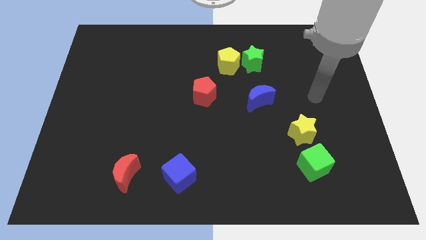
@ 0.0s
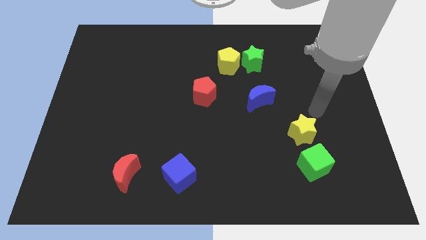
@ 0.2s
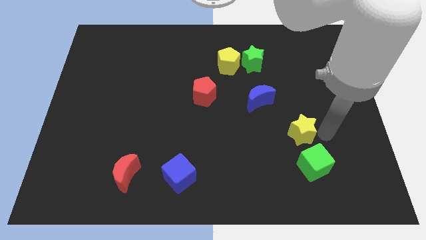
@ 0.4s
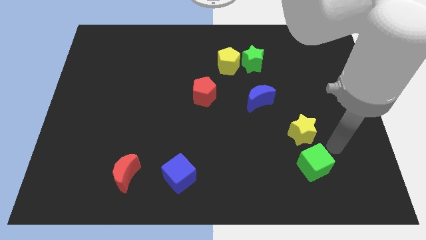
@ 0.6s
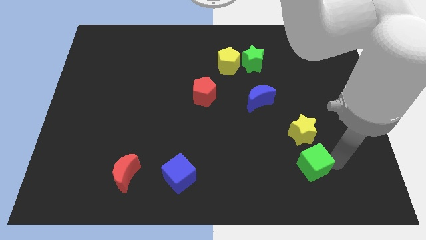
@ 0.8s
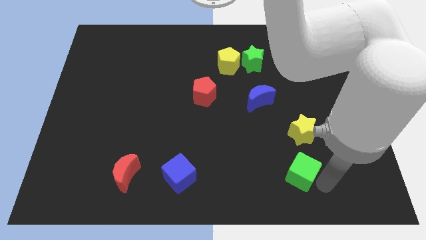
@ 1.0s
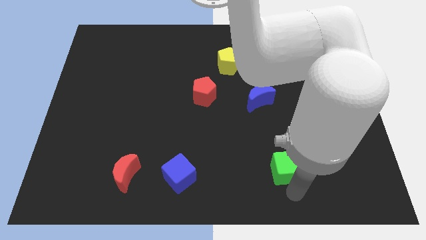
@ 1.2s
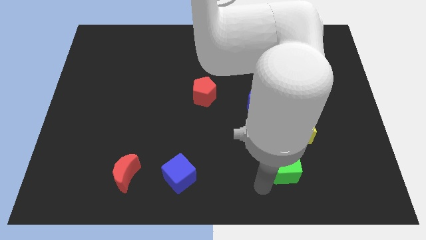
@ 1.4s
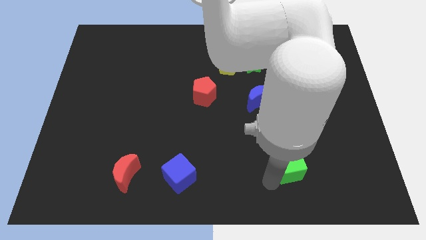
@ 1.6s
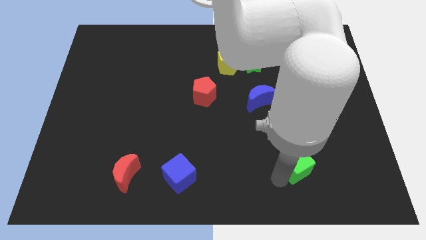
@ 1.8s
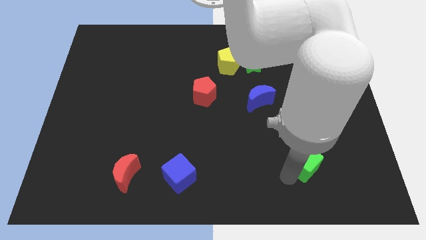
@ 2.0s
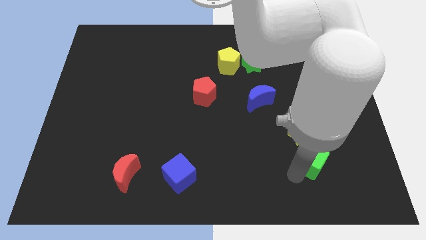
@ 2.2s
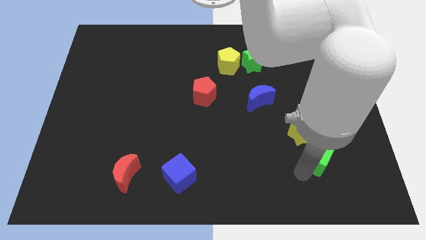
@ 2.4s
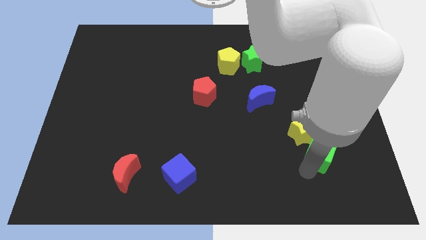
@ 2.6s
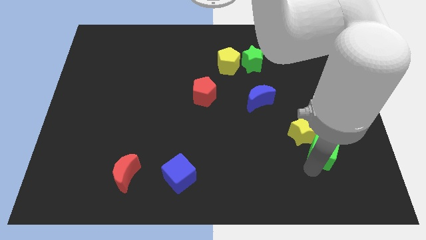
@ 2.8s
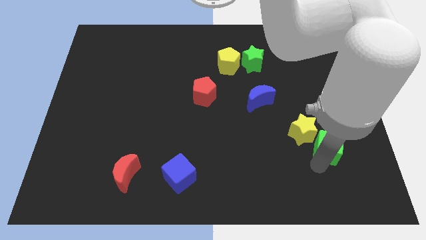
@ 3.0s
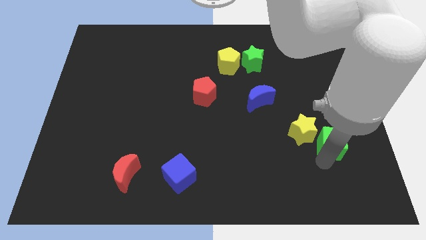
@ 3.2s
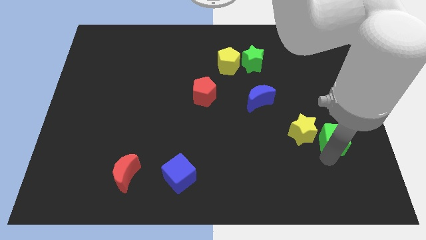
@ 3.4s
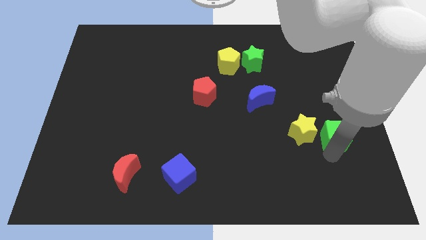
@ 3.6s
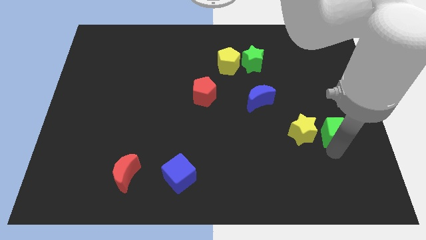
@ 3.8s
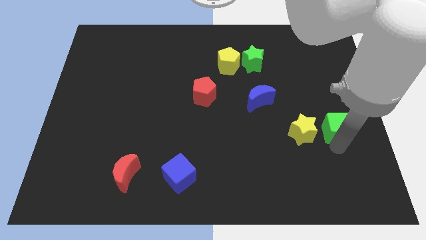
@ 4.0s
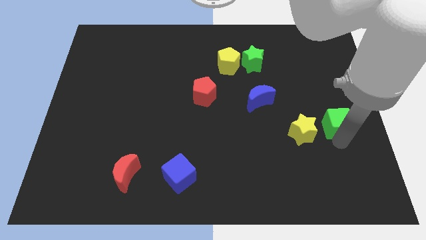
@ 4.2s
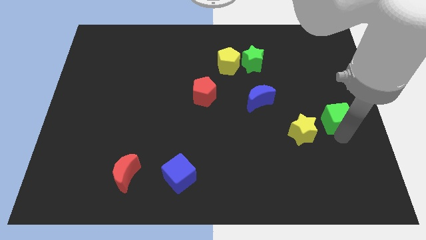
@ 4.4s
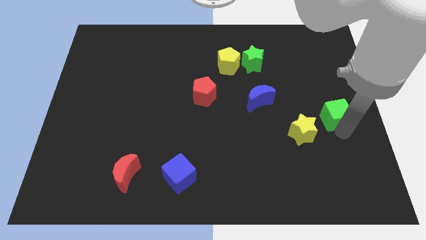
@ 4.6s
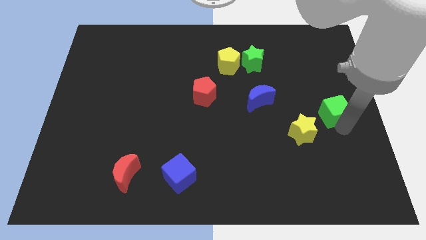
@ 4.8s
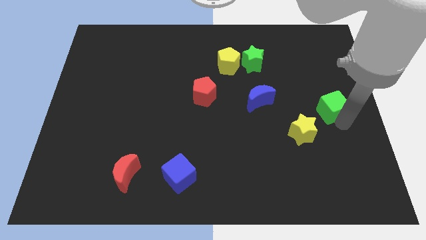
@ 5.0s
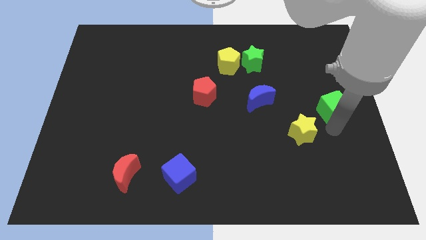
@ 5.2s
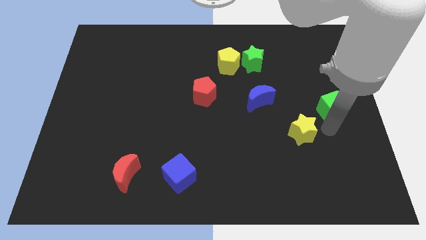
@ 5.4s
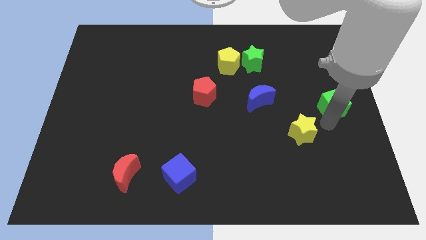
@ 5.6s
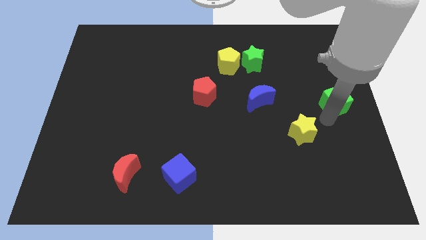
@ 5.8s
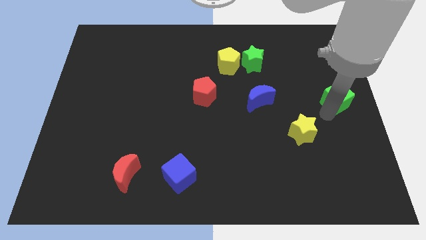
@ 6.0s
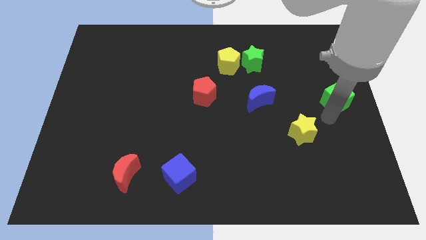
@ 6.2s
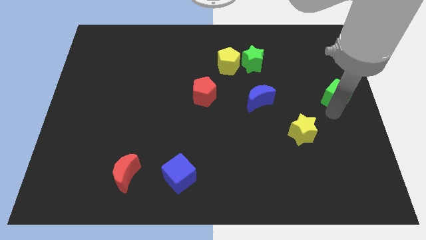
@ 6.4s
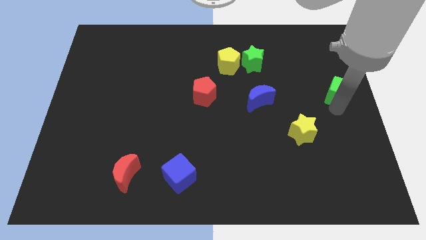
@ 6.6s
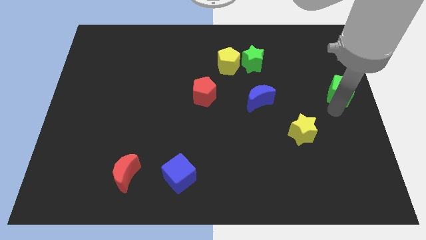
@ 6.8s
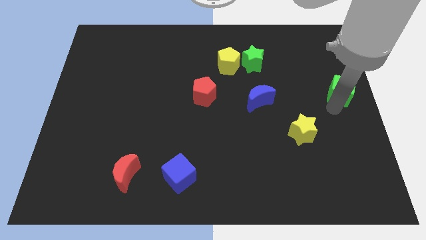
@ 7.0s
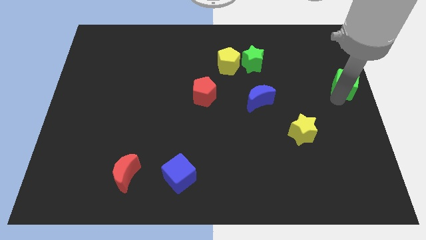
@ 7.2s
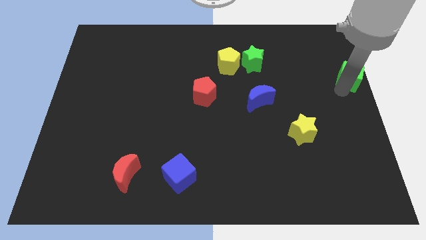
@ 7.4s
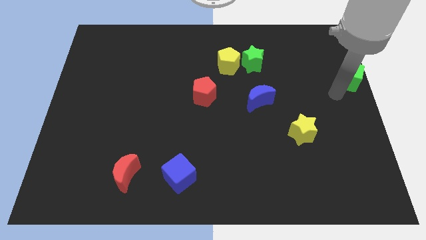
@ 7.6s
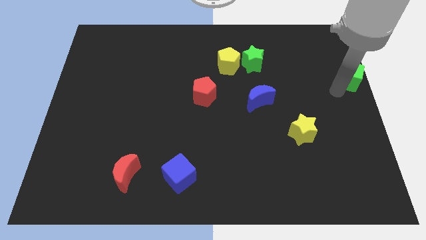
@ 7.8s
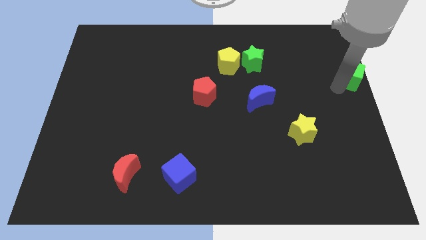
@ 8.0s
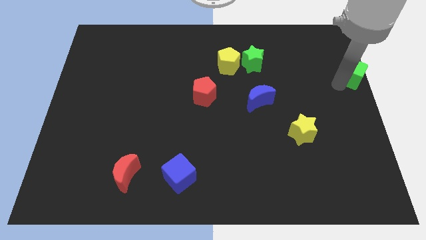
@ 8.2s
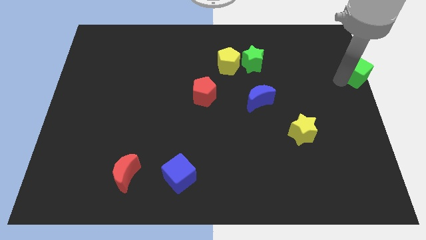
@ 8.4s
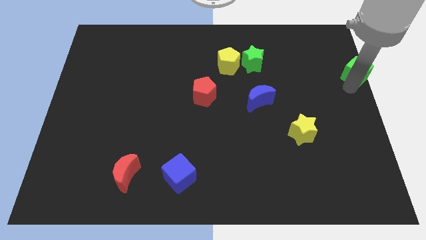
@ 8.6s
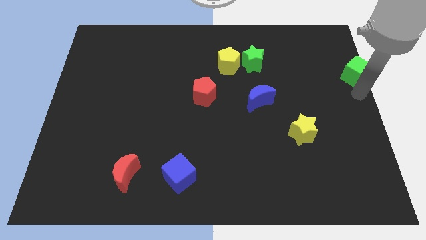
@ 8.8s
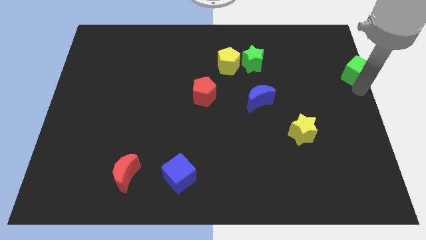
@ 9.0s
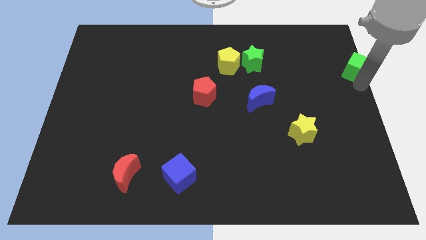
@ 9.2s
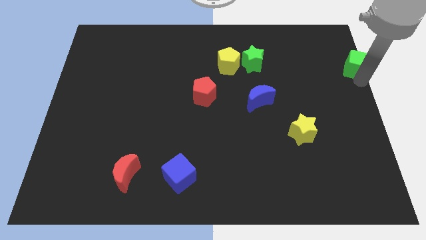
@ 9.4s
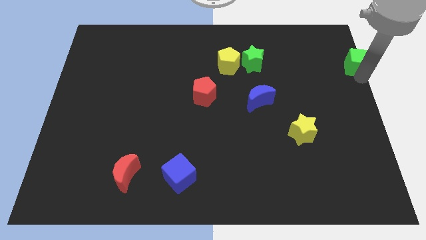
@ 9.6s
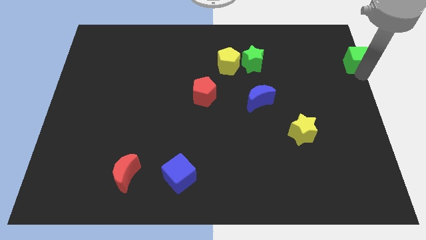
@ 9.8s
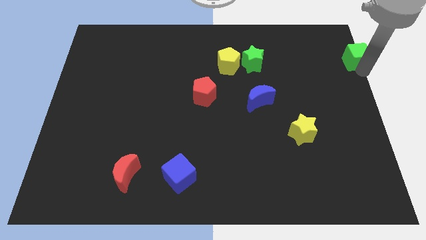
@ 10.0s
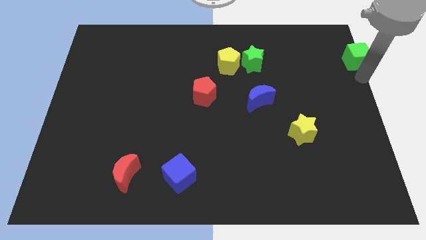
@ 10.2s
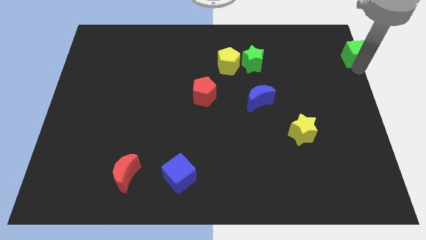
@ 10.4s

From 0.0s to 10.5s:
move the green cube to the top right of the board

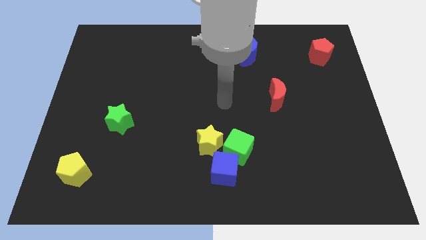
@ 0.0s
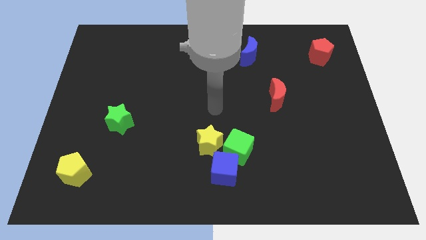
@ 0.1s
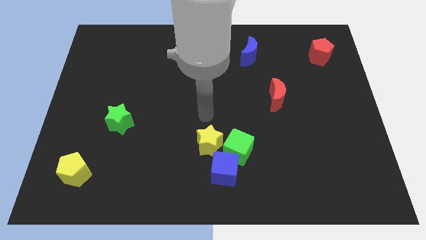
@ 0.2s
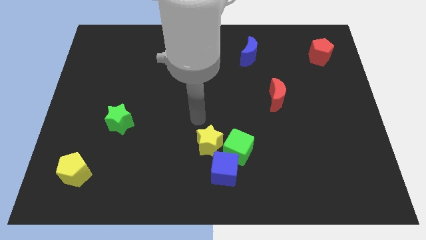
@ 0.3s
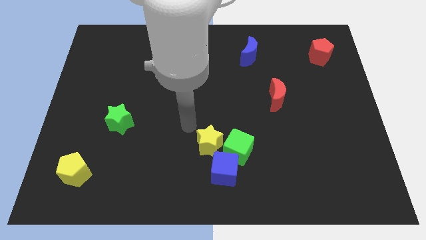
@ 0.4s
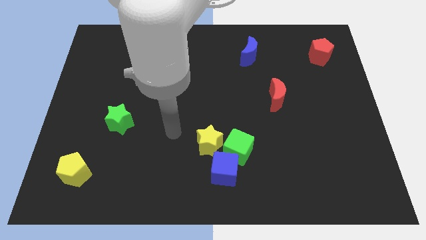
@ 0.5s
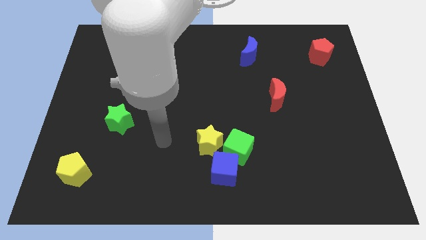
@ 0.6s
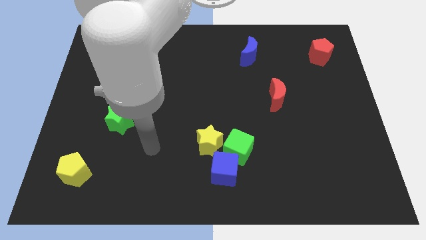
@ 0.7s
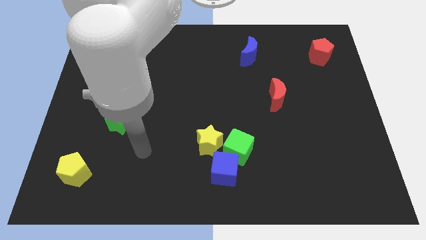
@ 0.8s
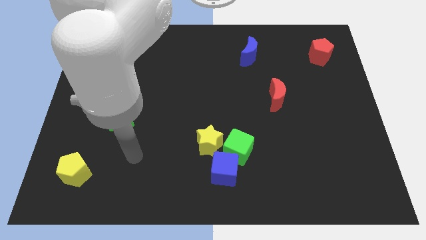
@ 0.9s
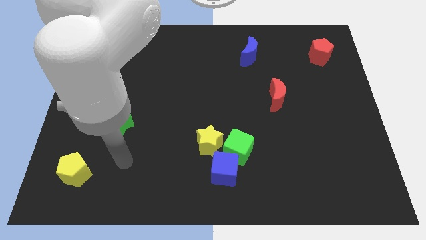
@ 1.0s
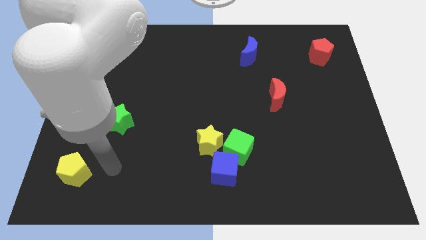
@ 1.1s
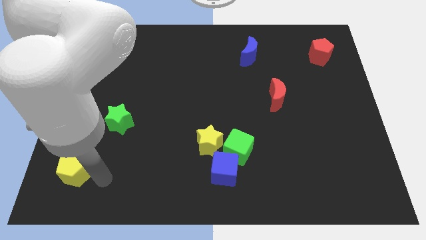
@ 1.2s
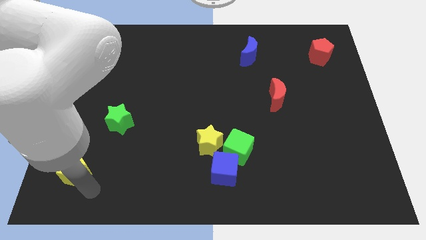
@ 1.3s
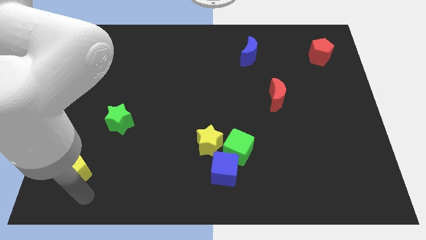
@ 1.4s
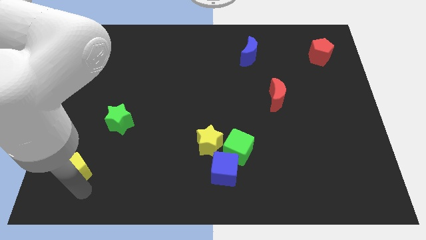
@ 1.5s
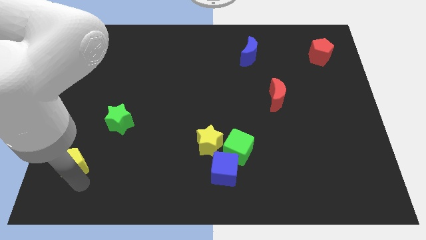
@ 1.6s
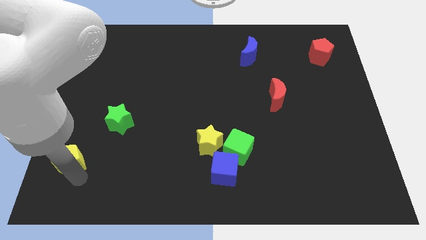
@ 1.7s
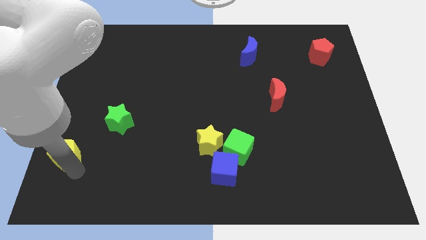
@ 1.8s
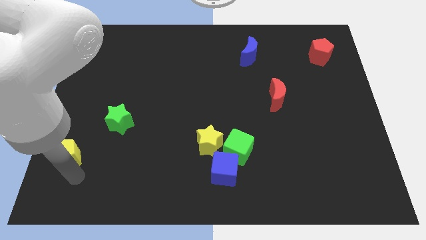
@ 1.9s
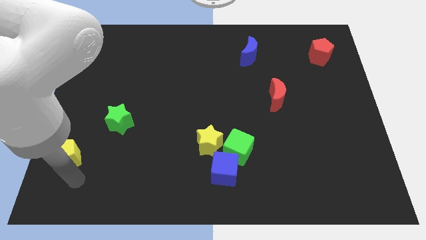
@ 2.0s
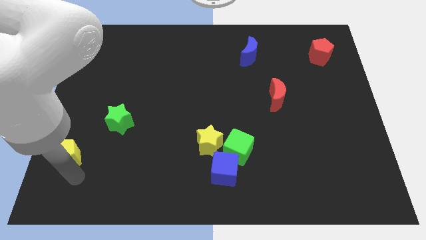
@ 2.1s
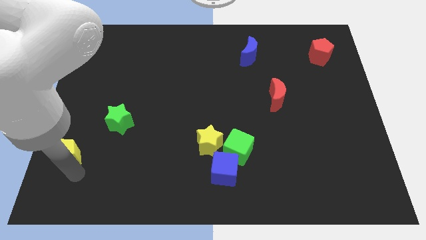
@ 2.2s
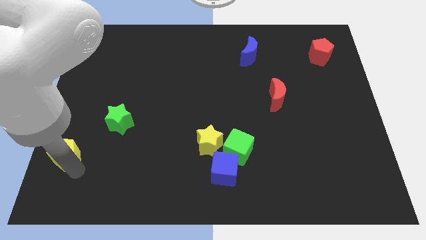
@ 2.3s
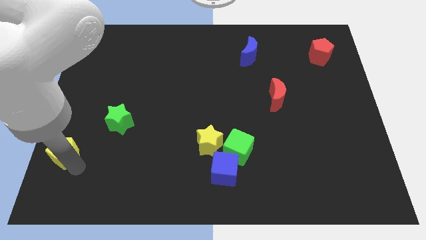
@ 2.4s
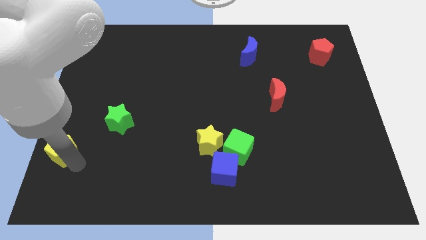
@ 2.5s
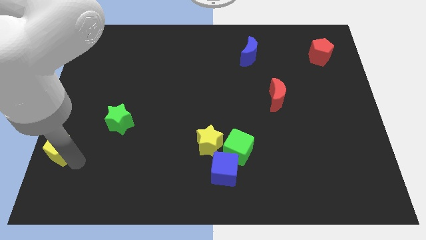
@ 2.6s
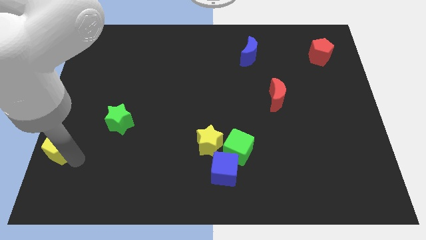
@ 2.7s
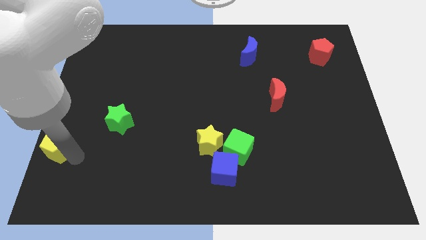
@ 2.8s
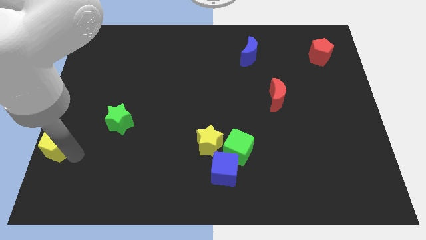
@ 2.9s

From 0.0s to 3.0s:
put the yellow pentagon to the left side of the board
